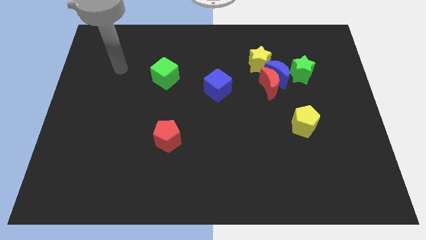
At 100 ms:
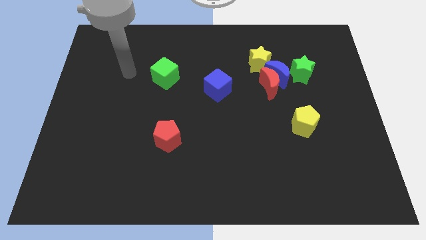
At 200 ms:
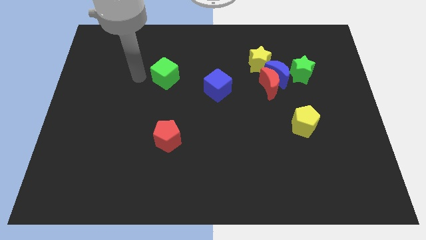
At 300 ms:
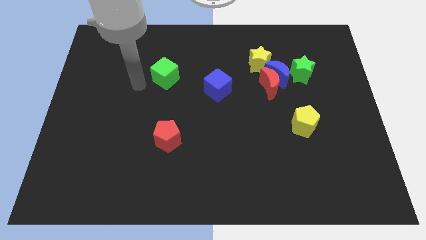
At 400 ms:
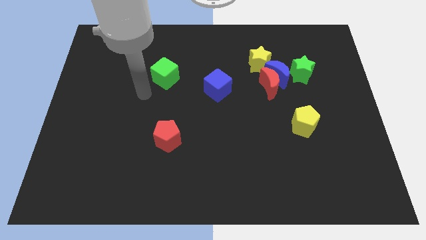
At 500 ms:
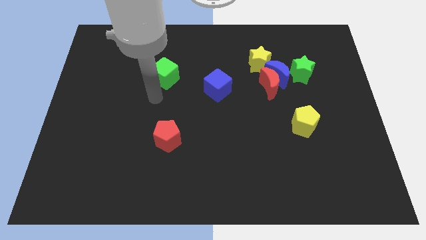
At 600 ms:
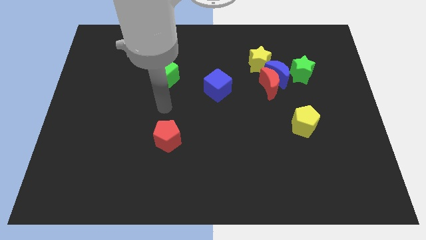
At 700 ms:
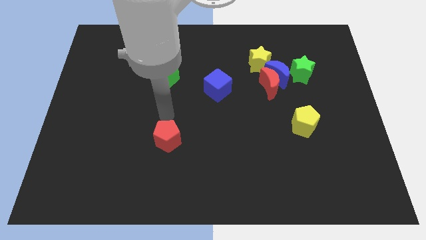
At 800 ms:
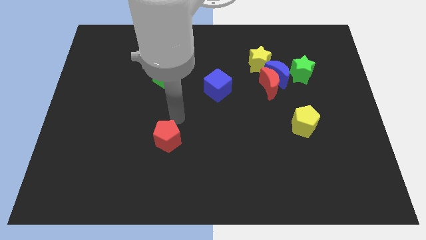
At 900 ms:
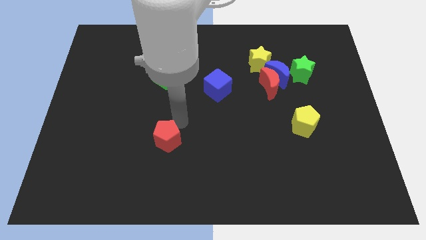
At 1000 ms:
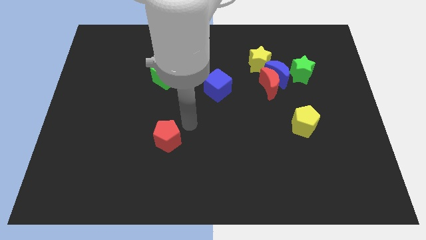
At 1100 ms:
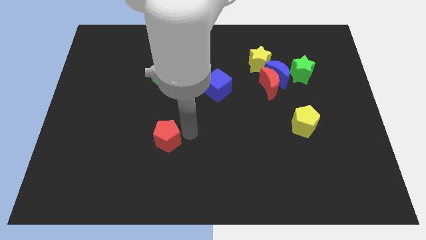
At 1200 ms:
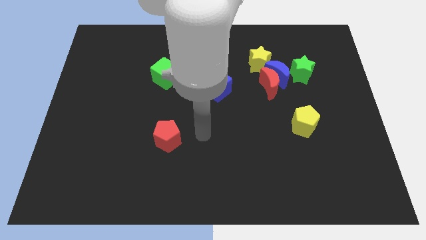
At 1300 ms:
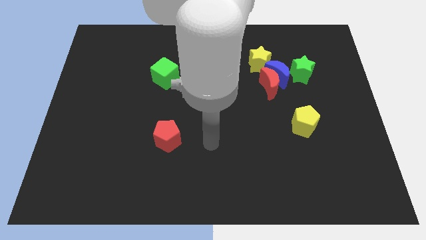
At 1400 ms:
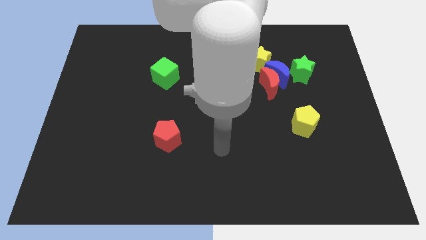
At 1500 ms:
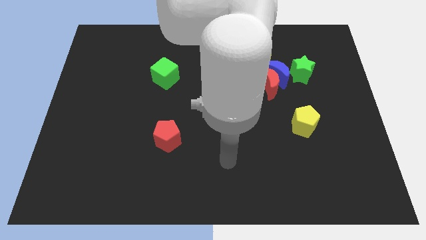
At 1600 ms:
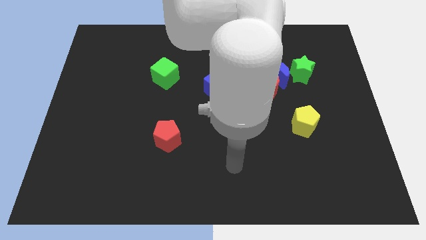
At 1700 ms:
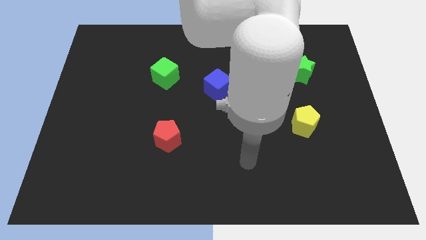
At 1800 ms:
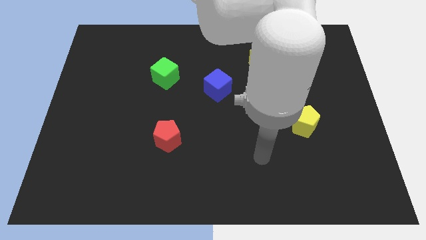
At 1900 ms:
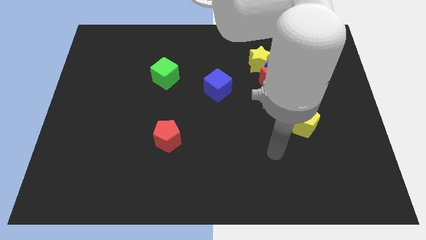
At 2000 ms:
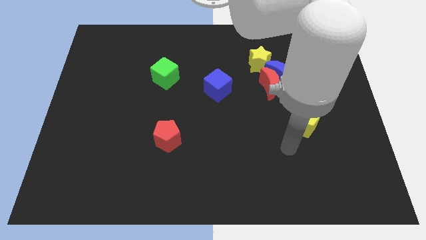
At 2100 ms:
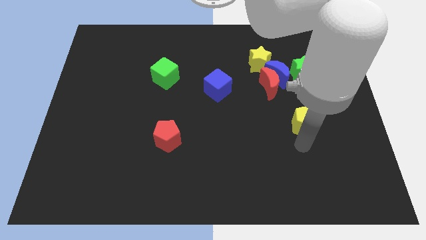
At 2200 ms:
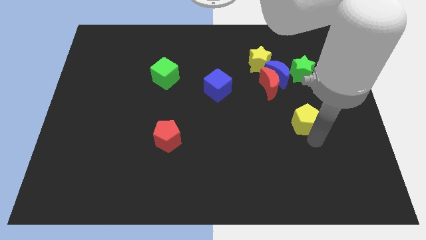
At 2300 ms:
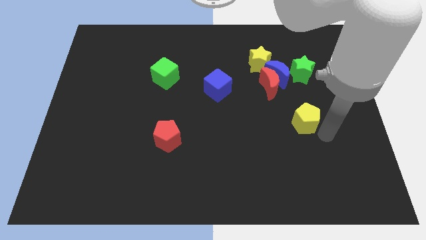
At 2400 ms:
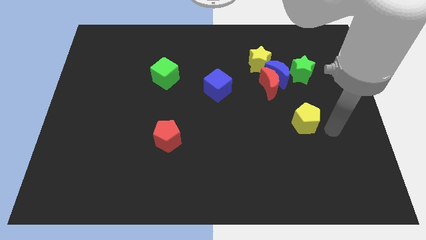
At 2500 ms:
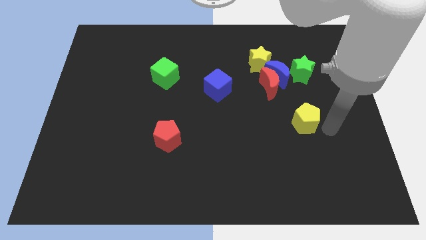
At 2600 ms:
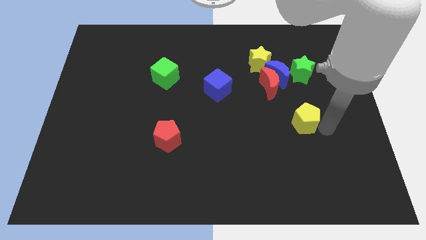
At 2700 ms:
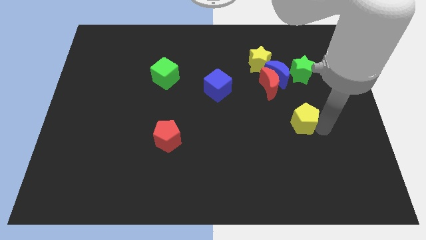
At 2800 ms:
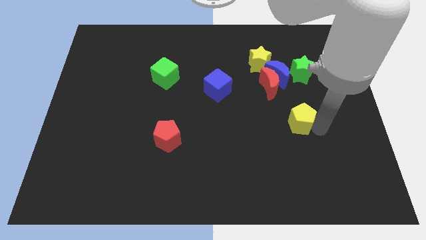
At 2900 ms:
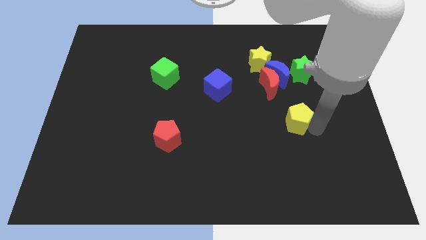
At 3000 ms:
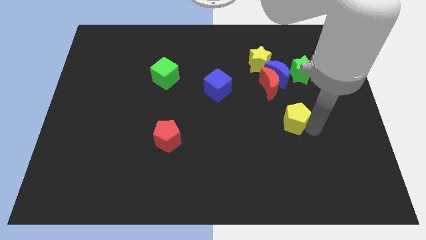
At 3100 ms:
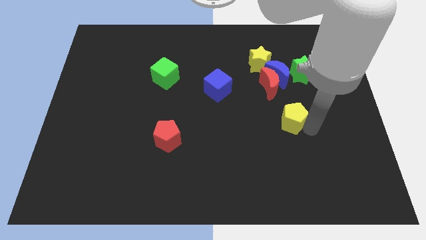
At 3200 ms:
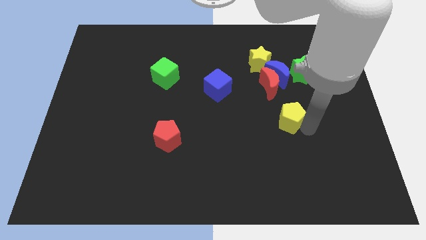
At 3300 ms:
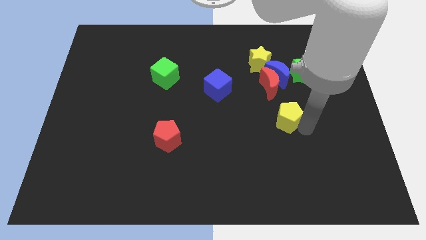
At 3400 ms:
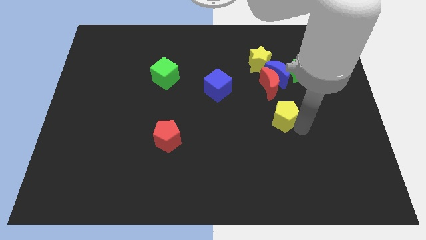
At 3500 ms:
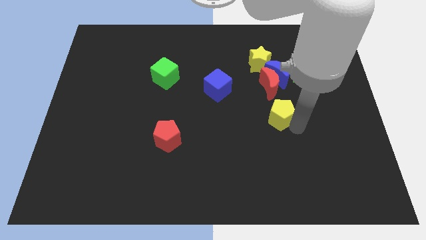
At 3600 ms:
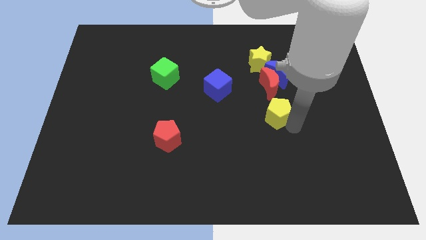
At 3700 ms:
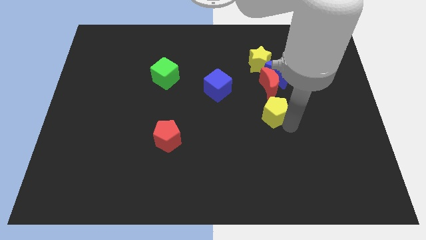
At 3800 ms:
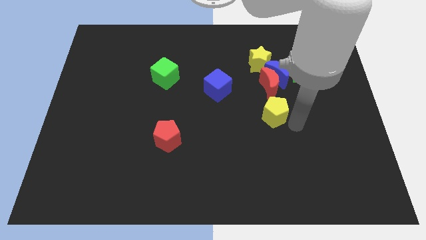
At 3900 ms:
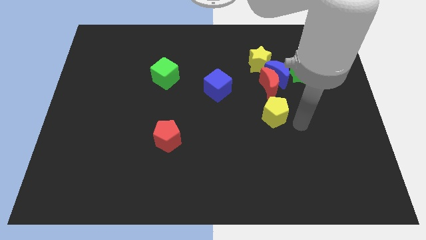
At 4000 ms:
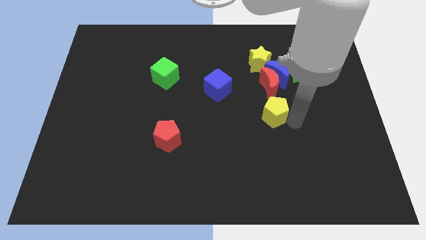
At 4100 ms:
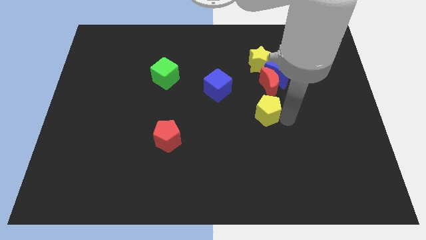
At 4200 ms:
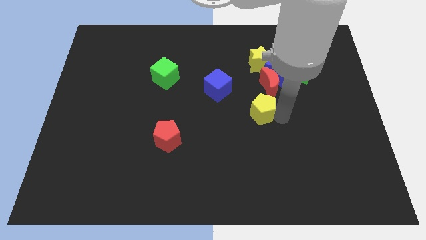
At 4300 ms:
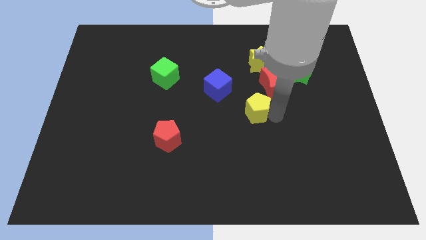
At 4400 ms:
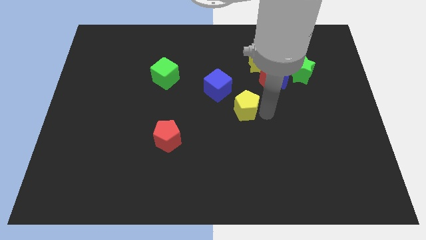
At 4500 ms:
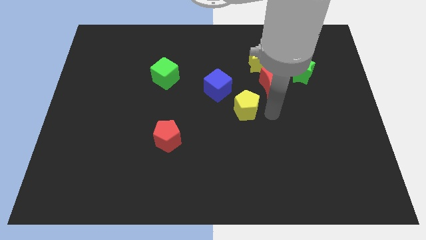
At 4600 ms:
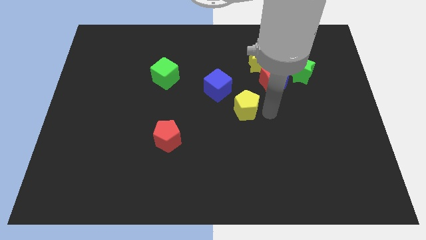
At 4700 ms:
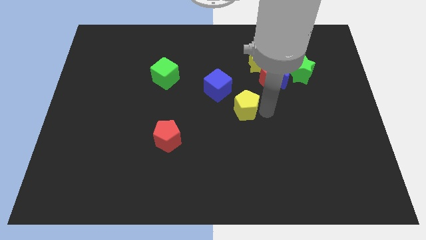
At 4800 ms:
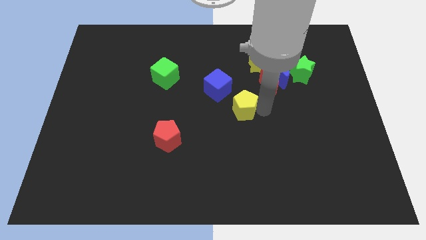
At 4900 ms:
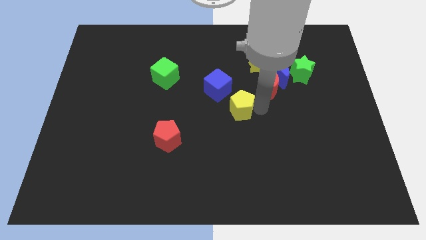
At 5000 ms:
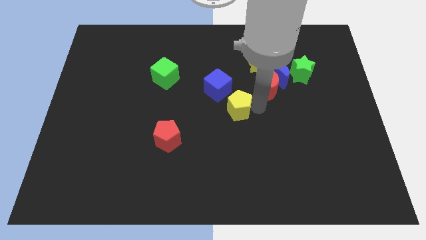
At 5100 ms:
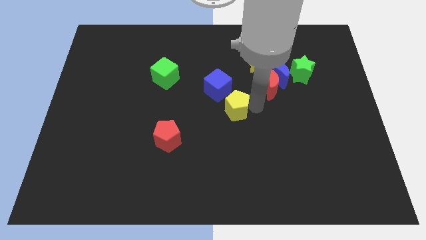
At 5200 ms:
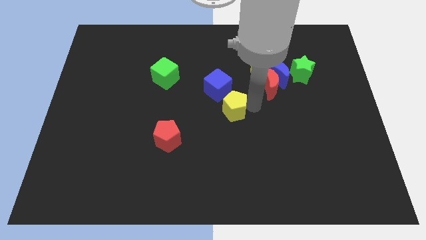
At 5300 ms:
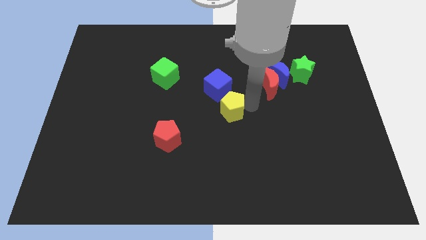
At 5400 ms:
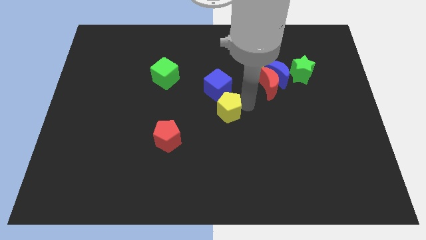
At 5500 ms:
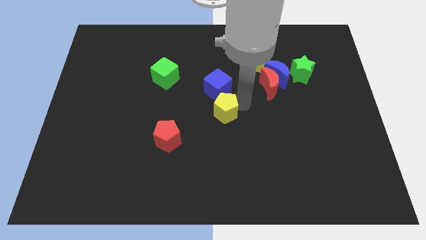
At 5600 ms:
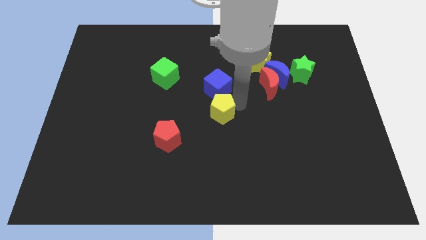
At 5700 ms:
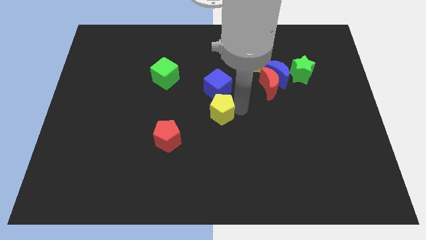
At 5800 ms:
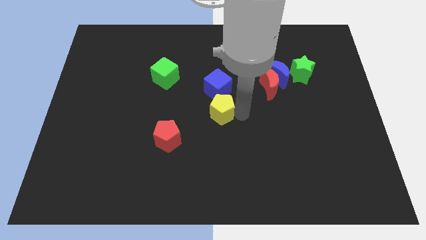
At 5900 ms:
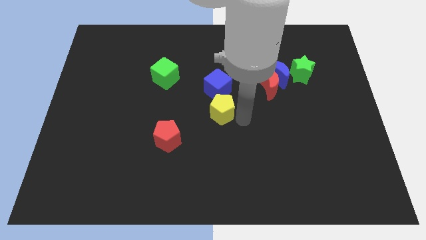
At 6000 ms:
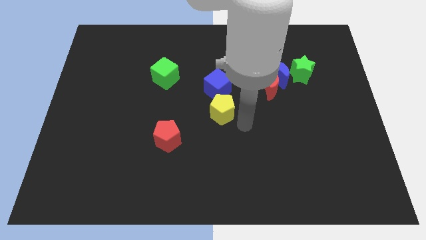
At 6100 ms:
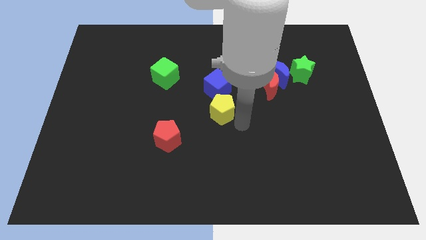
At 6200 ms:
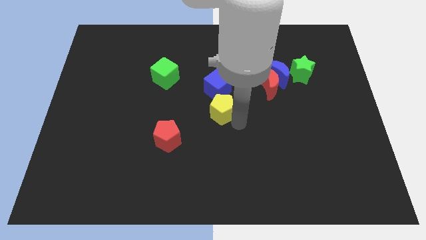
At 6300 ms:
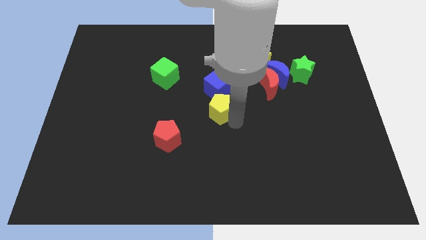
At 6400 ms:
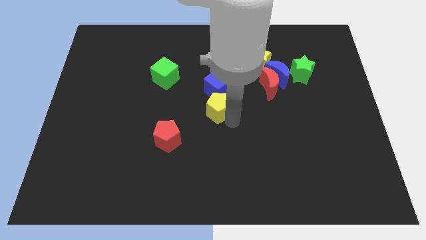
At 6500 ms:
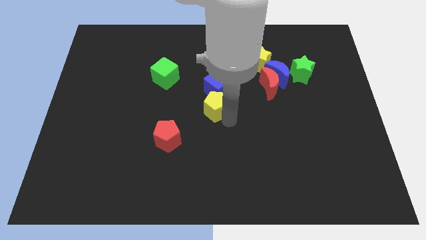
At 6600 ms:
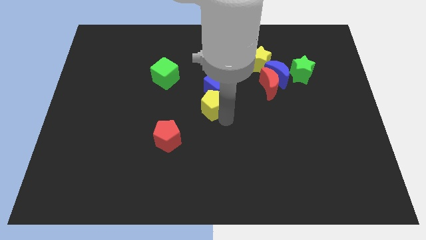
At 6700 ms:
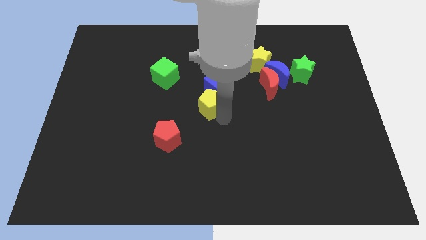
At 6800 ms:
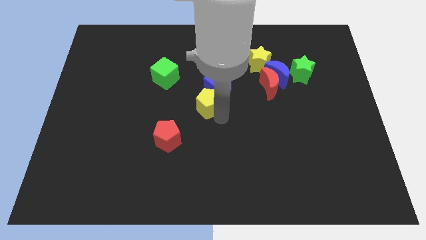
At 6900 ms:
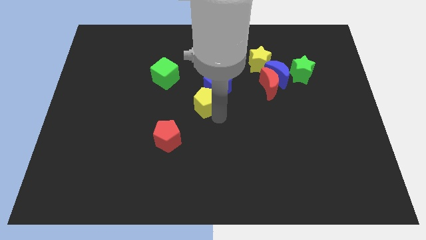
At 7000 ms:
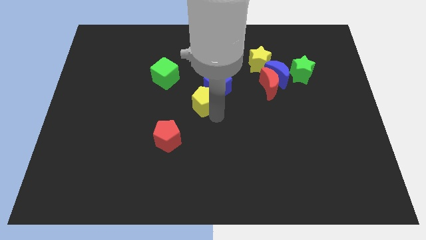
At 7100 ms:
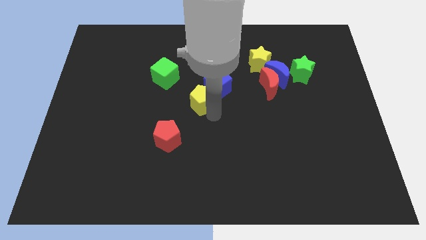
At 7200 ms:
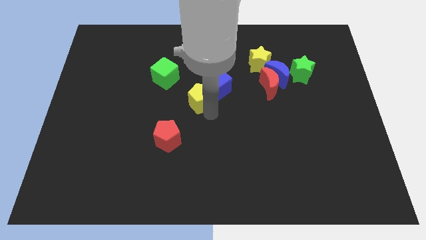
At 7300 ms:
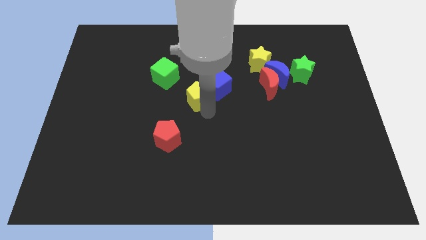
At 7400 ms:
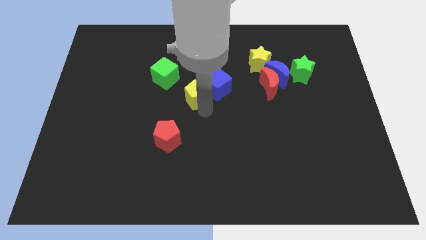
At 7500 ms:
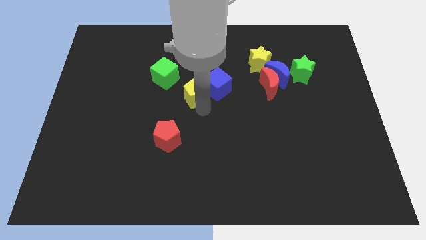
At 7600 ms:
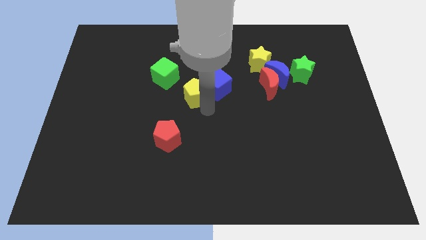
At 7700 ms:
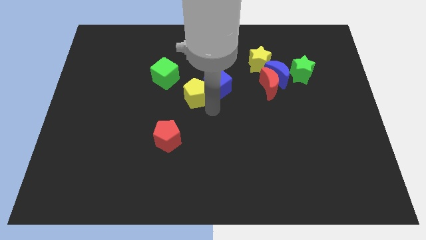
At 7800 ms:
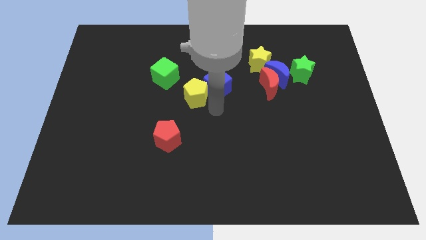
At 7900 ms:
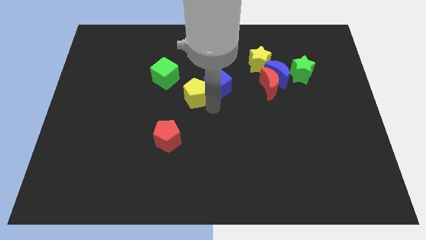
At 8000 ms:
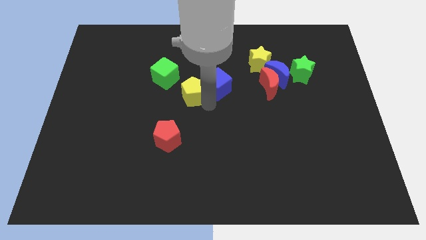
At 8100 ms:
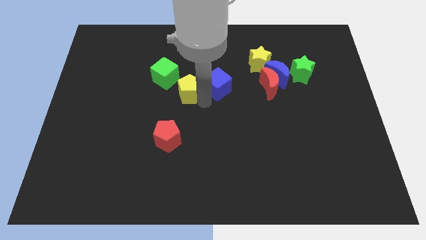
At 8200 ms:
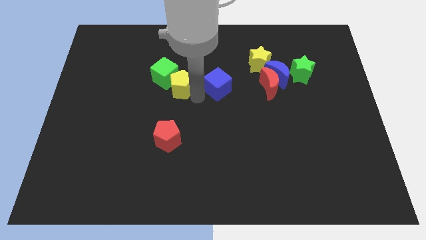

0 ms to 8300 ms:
put the yellow pentagon next to the green cube
